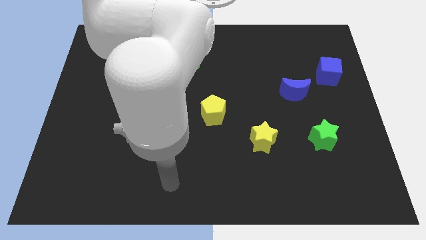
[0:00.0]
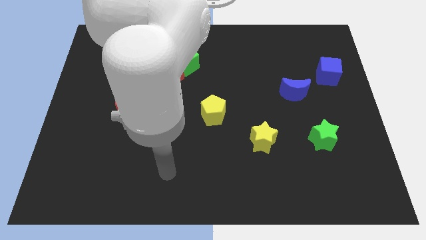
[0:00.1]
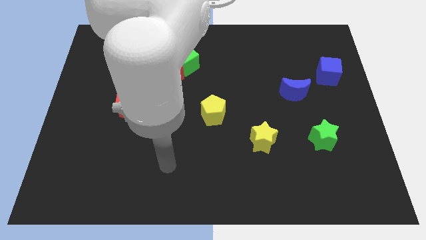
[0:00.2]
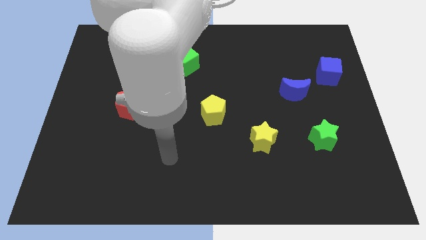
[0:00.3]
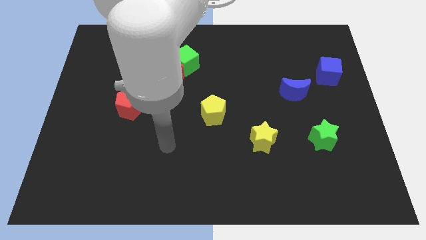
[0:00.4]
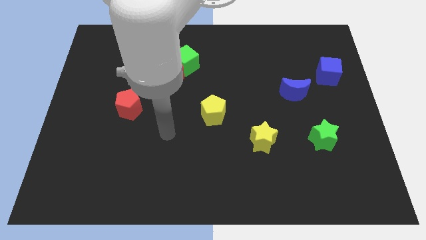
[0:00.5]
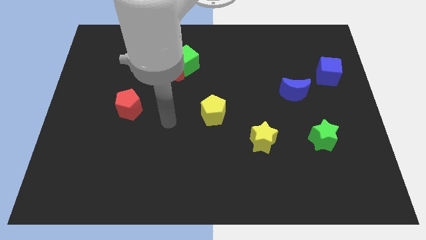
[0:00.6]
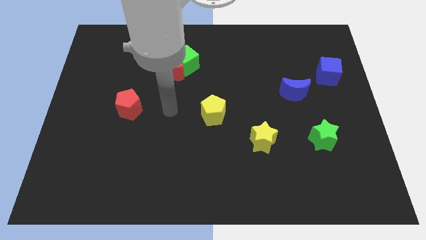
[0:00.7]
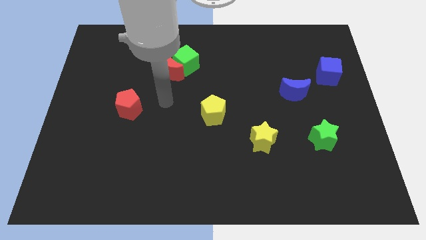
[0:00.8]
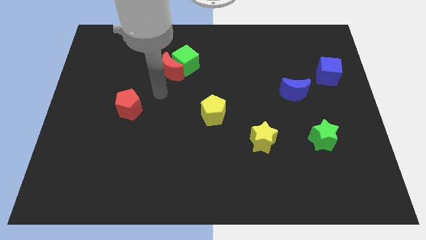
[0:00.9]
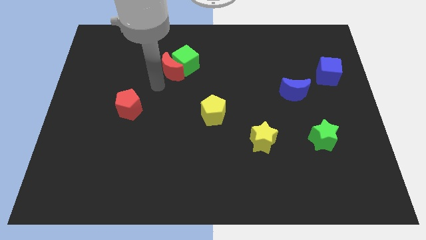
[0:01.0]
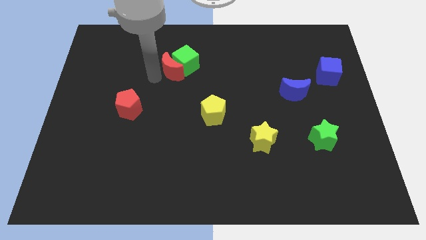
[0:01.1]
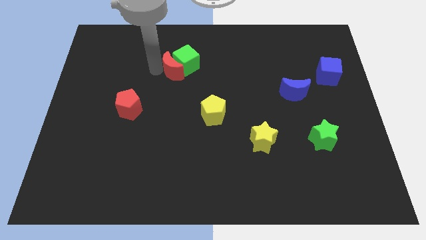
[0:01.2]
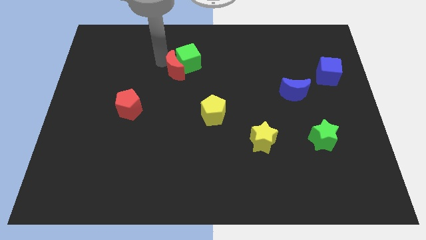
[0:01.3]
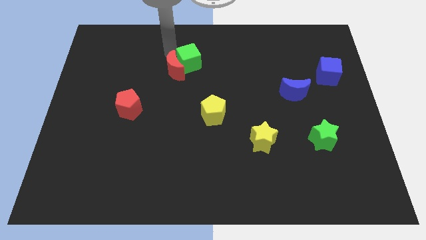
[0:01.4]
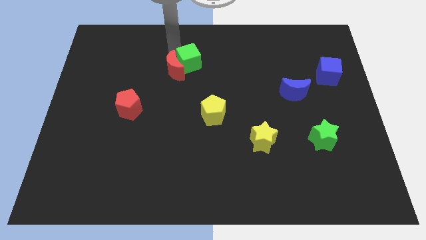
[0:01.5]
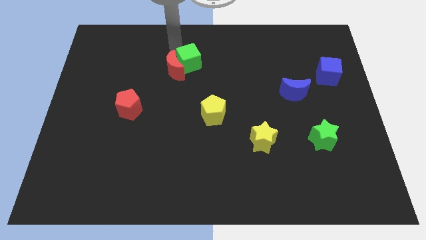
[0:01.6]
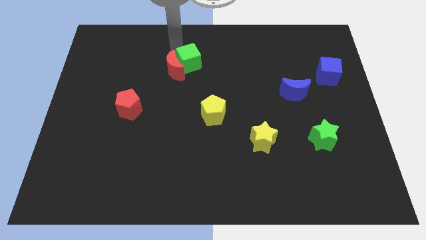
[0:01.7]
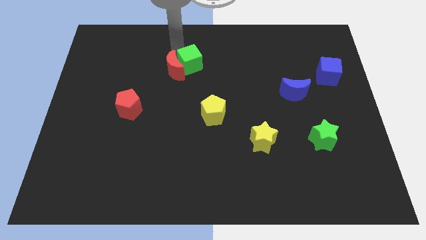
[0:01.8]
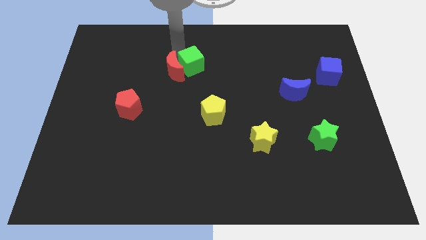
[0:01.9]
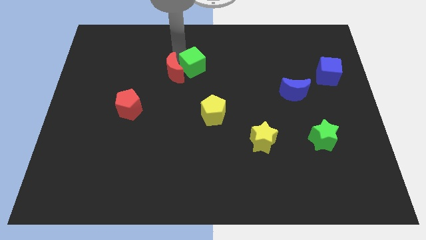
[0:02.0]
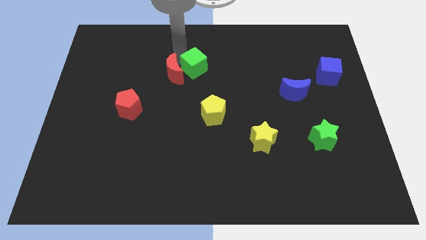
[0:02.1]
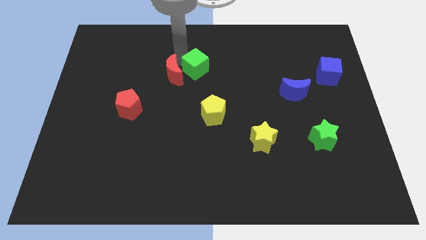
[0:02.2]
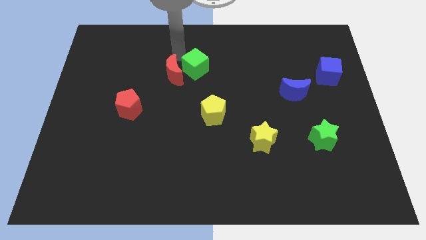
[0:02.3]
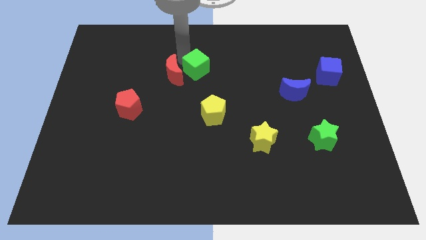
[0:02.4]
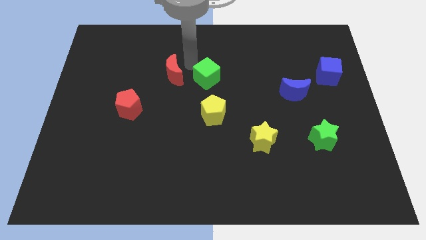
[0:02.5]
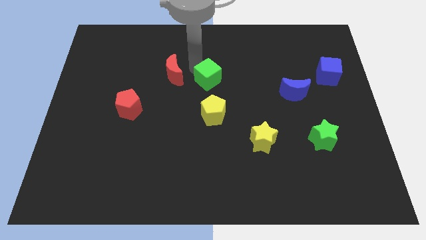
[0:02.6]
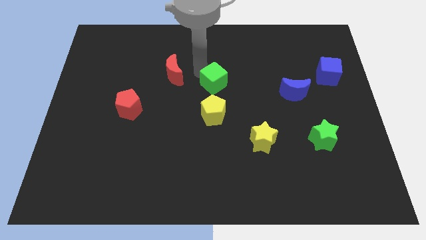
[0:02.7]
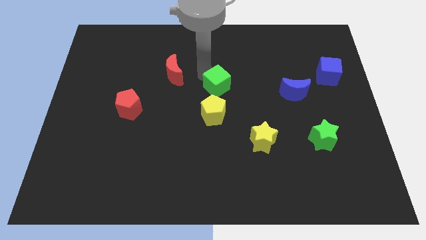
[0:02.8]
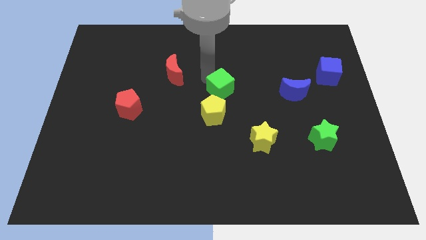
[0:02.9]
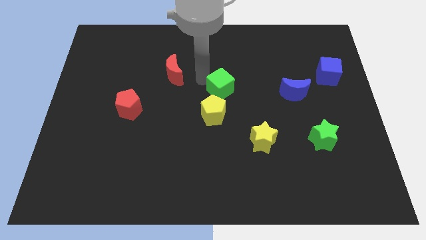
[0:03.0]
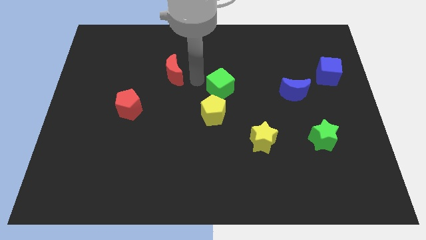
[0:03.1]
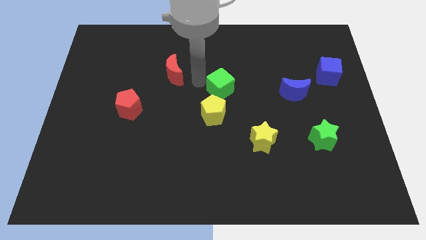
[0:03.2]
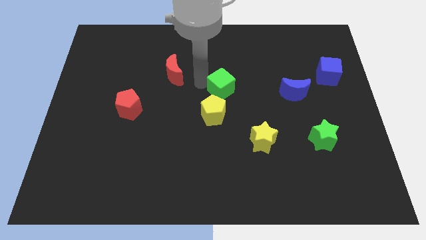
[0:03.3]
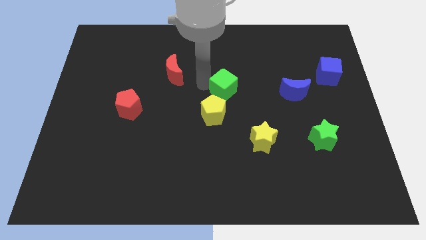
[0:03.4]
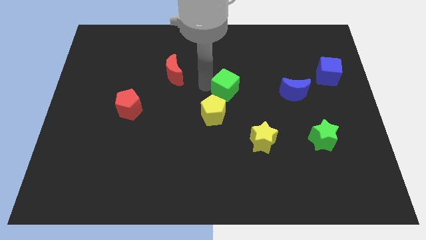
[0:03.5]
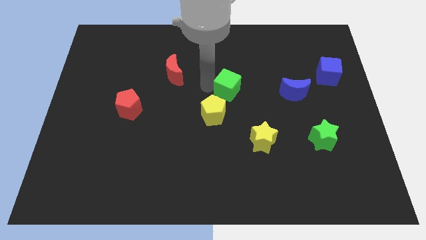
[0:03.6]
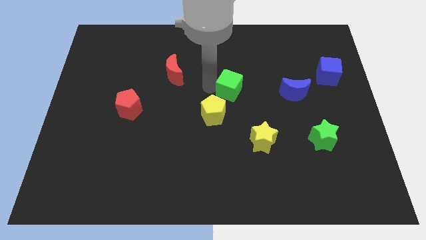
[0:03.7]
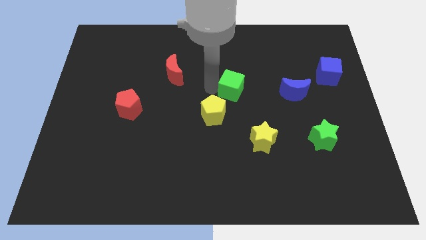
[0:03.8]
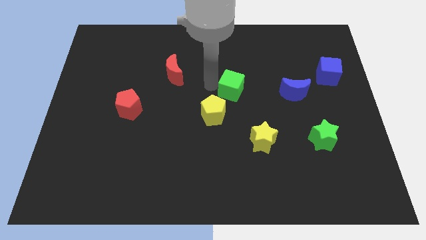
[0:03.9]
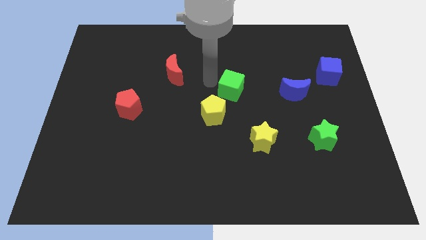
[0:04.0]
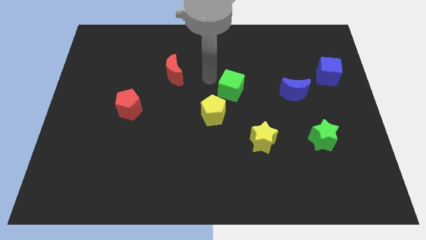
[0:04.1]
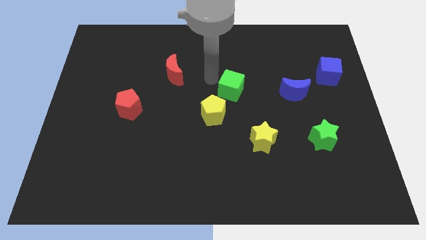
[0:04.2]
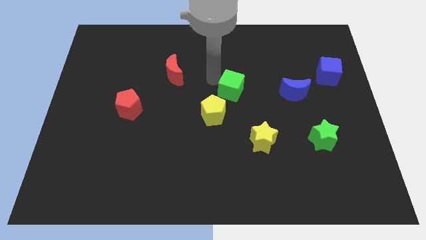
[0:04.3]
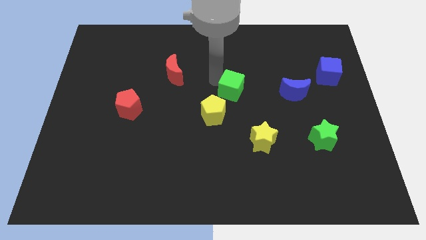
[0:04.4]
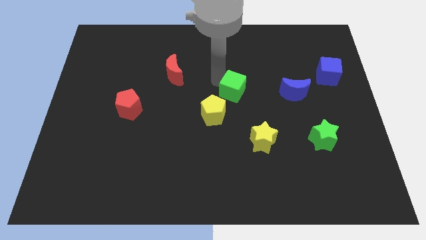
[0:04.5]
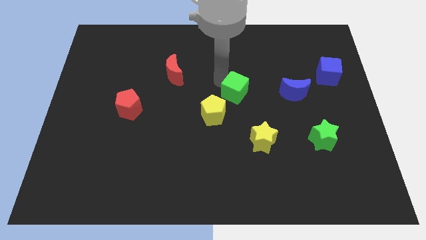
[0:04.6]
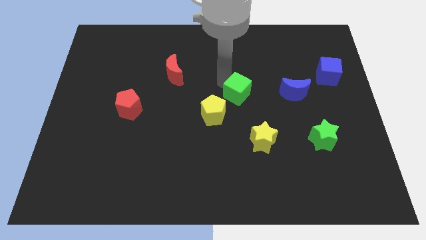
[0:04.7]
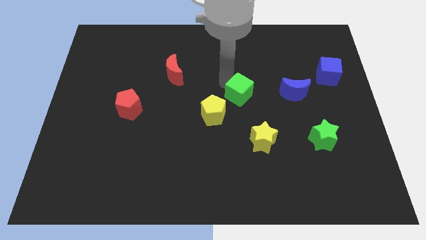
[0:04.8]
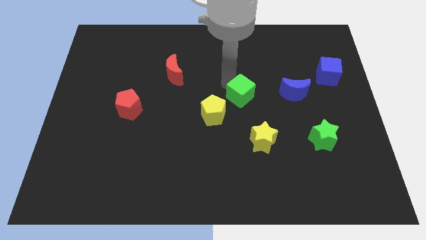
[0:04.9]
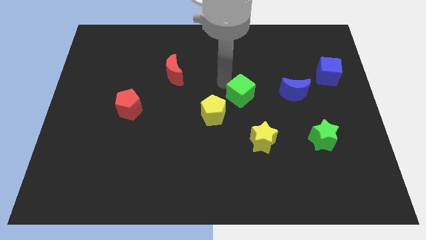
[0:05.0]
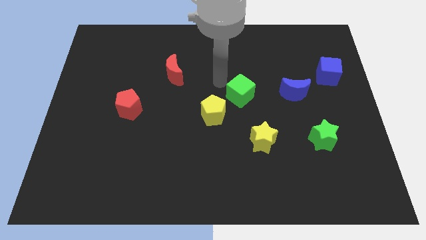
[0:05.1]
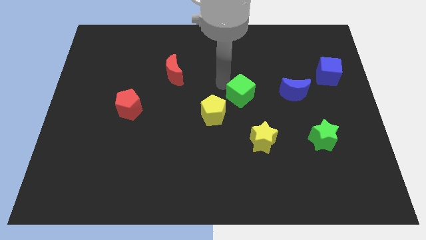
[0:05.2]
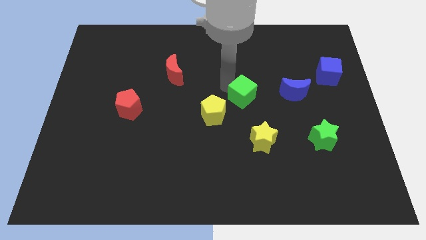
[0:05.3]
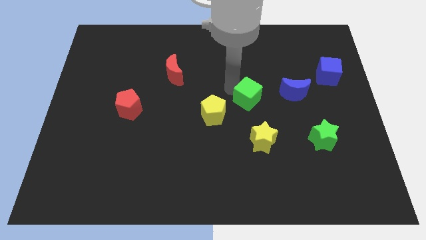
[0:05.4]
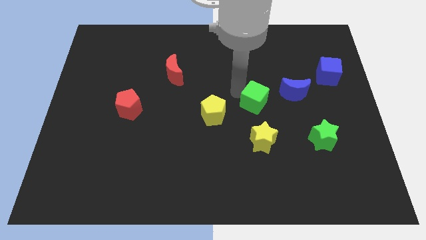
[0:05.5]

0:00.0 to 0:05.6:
slide the green cube down and right

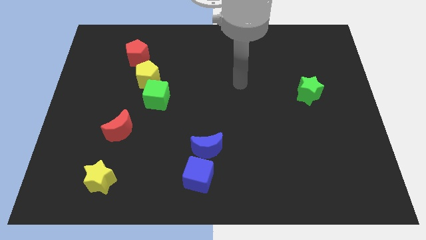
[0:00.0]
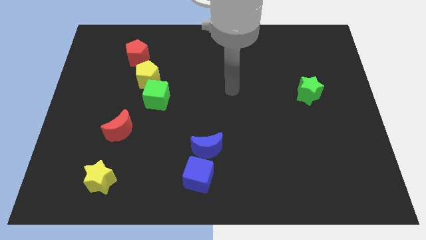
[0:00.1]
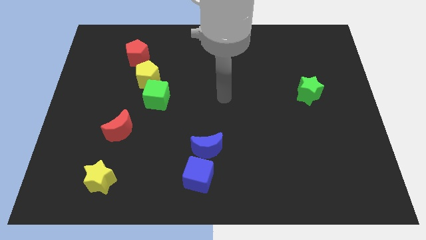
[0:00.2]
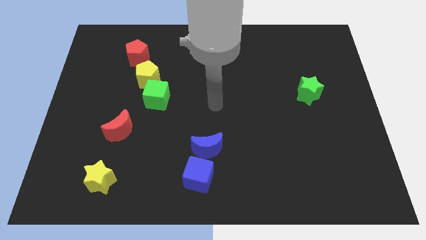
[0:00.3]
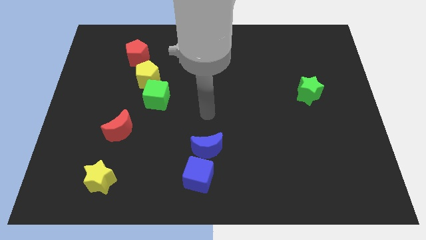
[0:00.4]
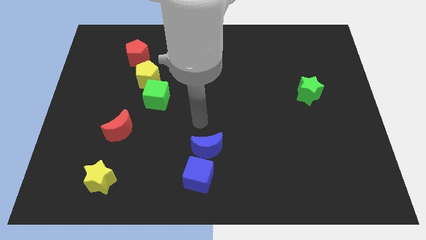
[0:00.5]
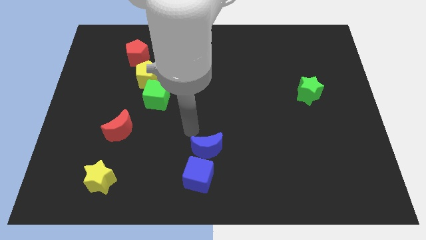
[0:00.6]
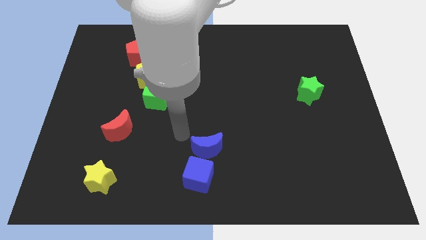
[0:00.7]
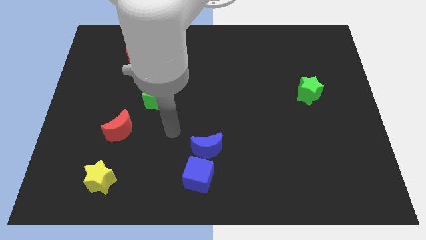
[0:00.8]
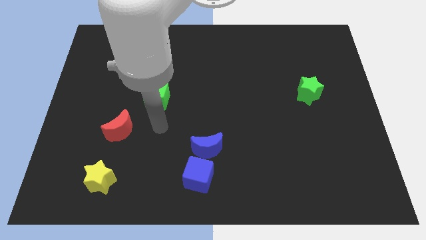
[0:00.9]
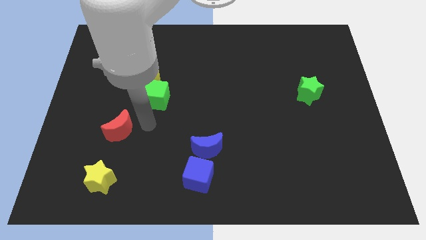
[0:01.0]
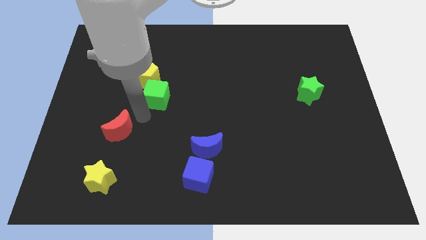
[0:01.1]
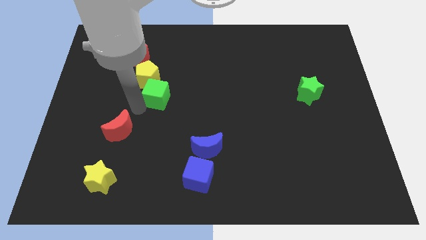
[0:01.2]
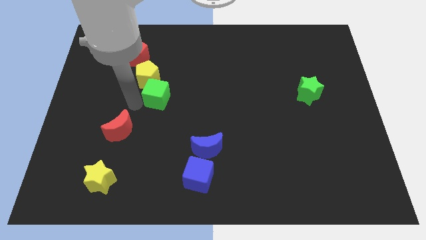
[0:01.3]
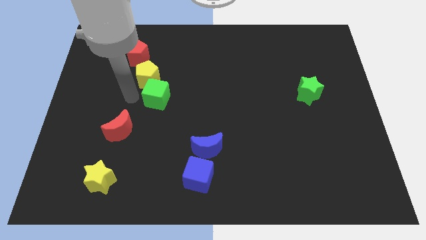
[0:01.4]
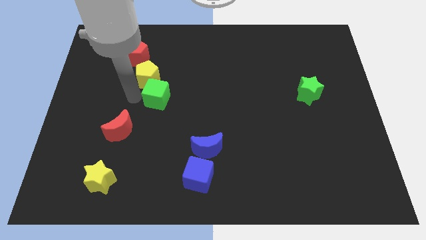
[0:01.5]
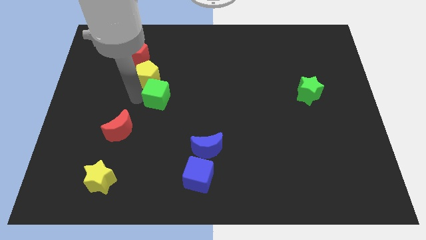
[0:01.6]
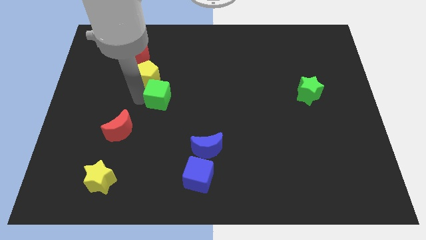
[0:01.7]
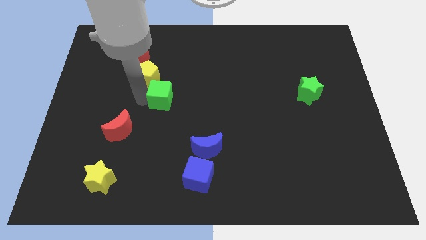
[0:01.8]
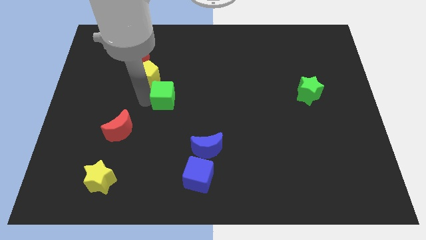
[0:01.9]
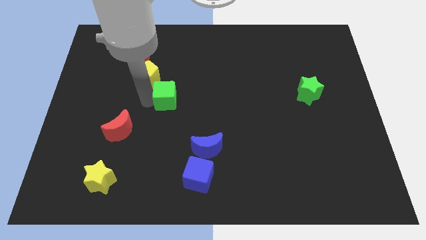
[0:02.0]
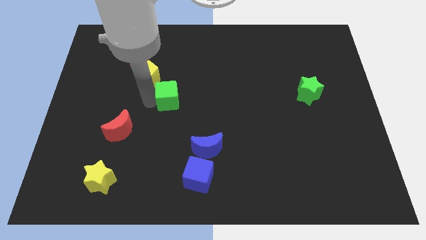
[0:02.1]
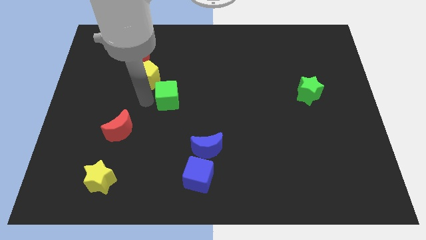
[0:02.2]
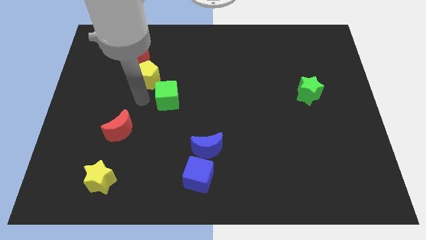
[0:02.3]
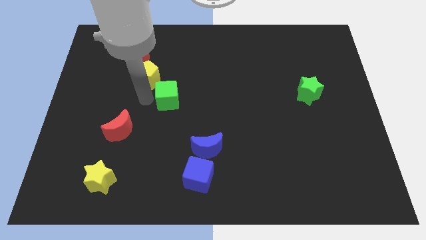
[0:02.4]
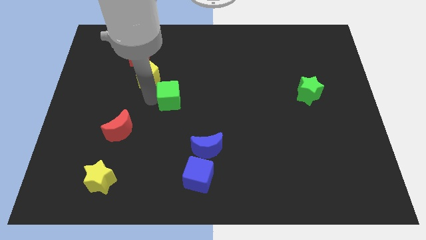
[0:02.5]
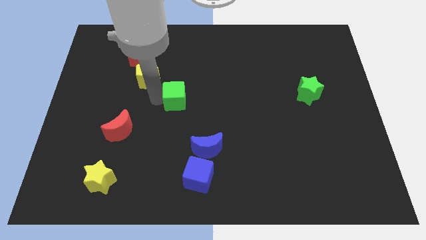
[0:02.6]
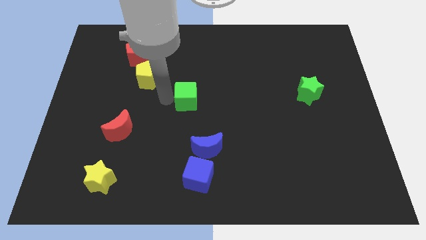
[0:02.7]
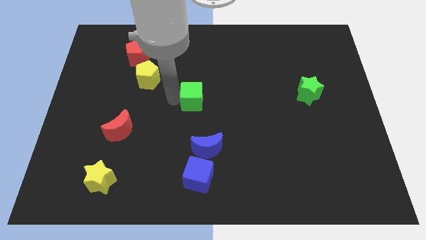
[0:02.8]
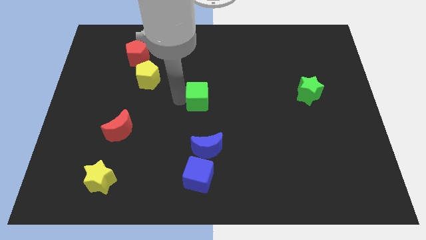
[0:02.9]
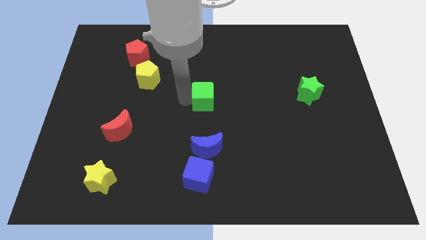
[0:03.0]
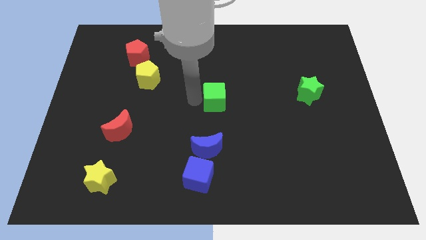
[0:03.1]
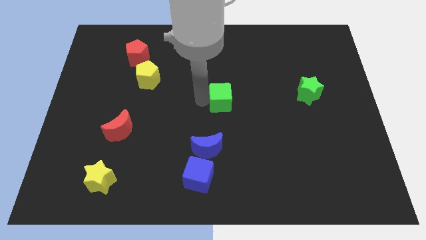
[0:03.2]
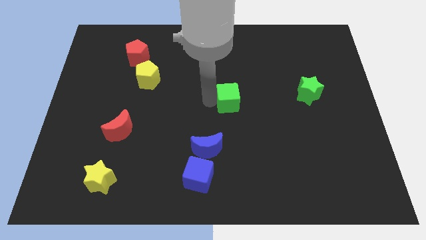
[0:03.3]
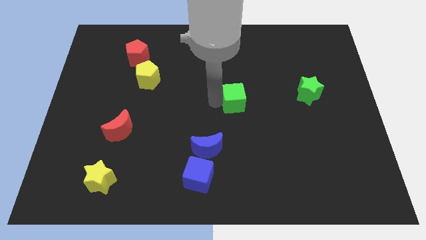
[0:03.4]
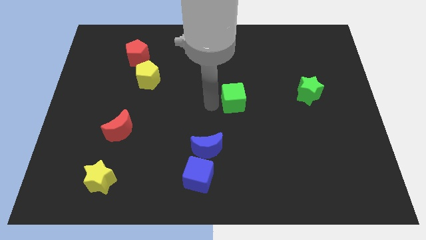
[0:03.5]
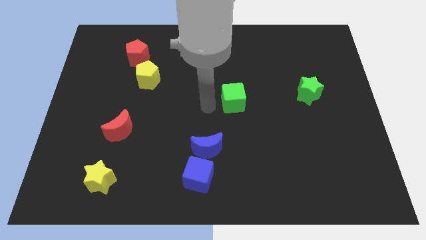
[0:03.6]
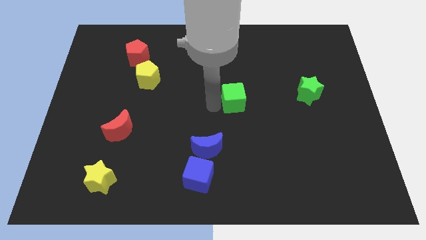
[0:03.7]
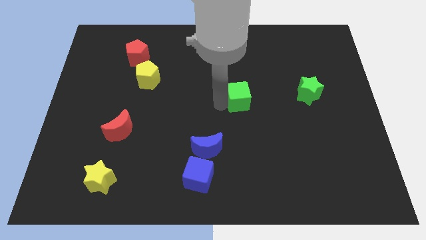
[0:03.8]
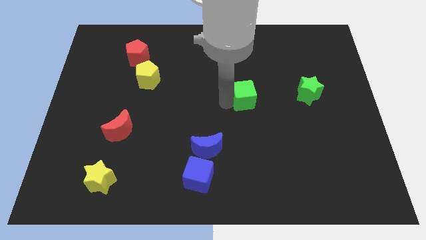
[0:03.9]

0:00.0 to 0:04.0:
push the green cube to the right
